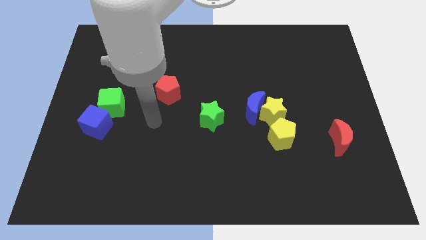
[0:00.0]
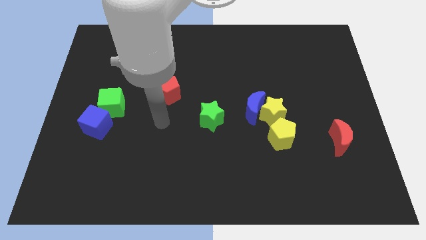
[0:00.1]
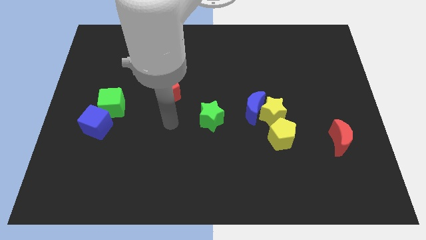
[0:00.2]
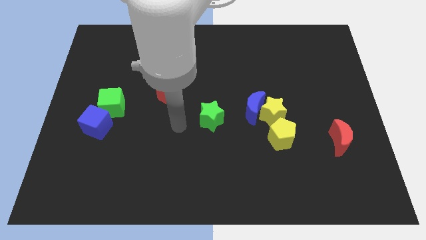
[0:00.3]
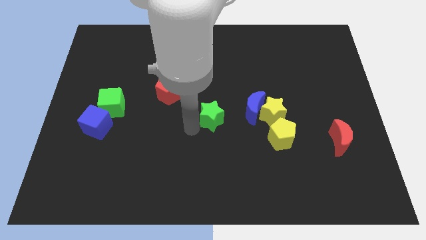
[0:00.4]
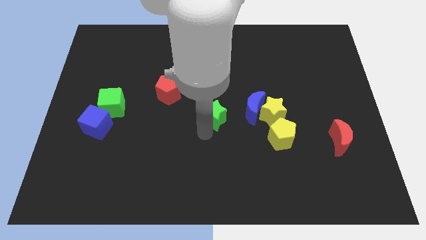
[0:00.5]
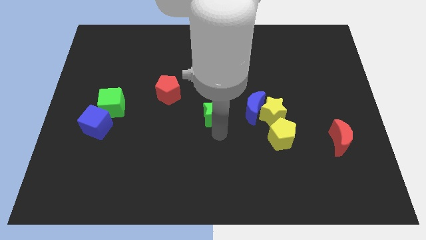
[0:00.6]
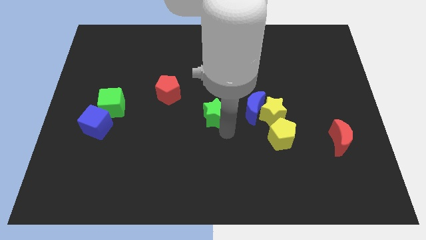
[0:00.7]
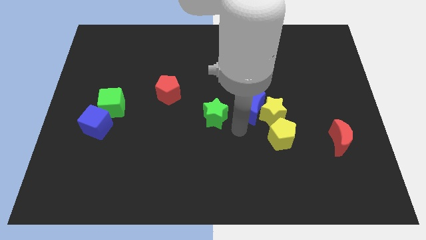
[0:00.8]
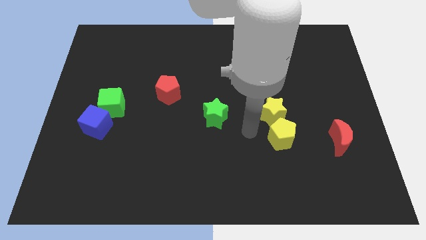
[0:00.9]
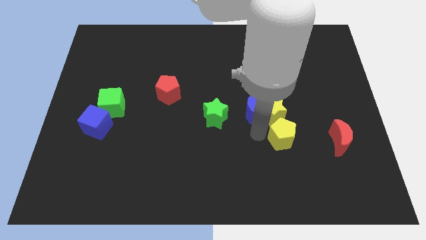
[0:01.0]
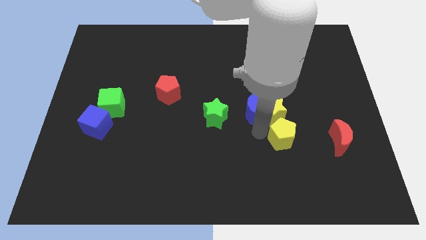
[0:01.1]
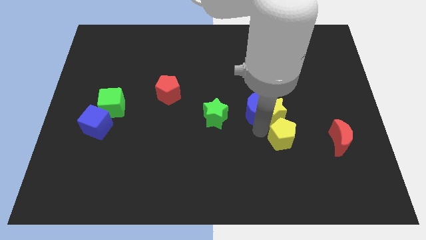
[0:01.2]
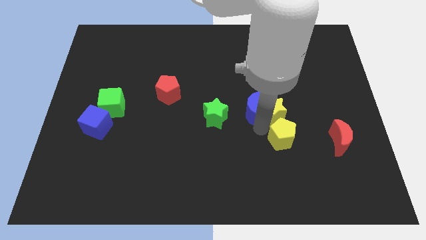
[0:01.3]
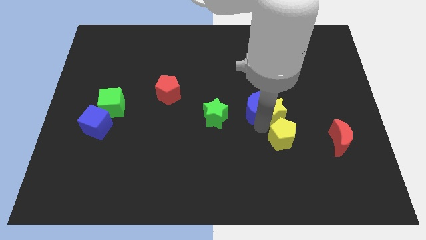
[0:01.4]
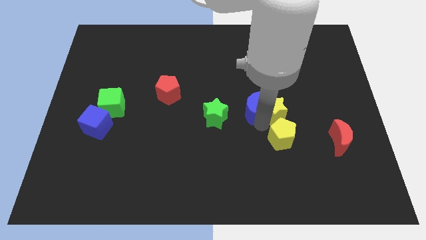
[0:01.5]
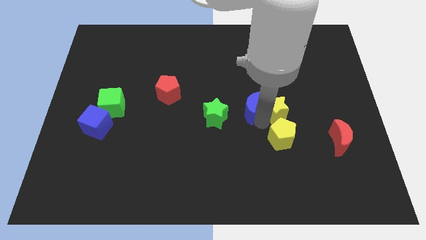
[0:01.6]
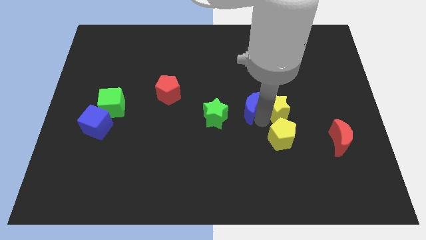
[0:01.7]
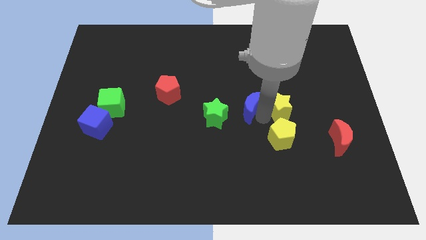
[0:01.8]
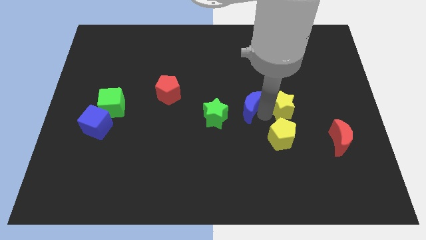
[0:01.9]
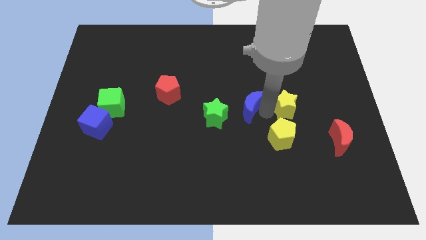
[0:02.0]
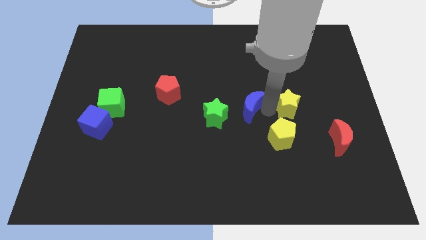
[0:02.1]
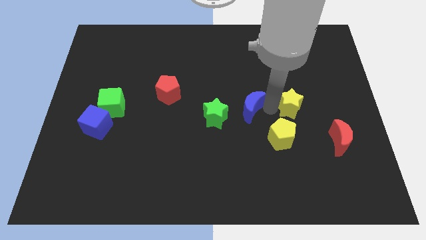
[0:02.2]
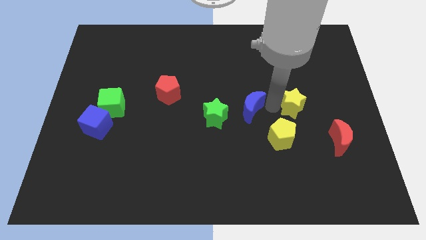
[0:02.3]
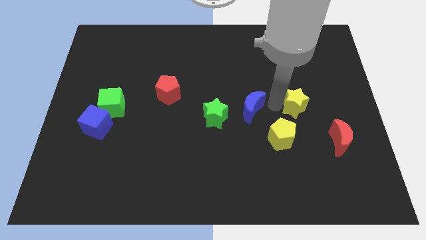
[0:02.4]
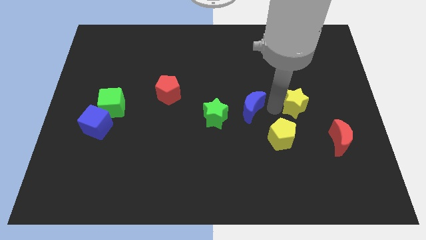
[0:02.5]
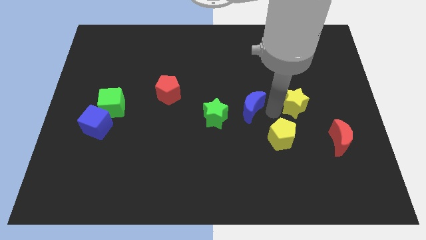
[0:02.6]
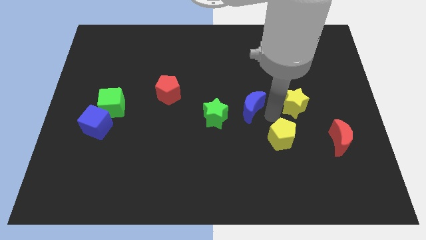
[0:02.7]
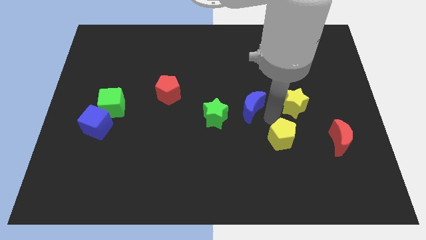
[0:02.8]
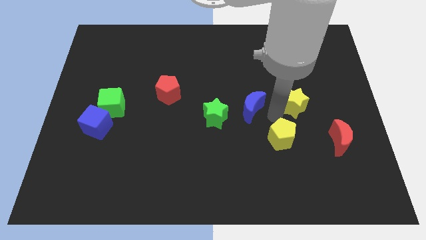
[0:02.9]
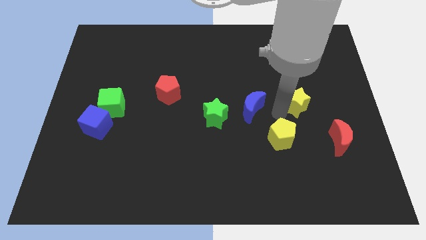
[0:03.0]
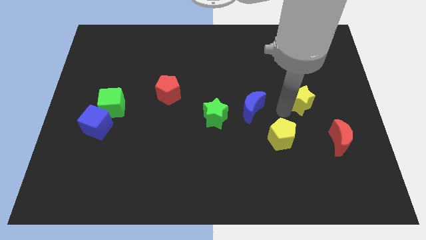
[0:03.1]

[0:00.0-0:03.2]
separate the yellow star from the blue moon and yellow pentagon

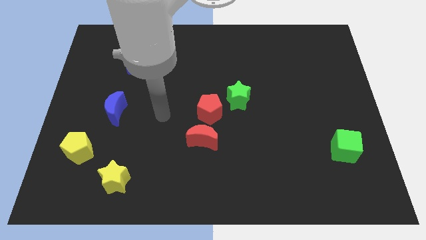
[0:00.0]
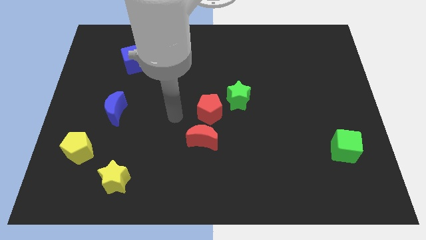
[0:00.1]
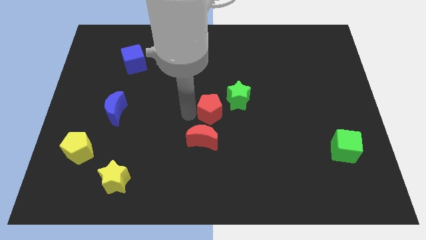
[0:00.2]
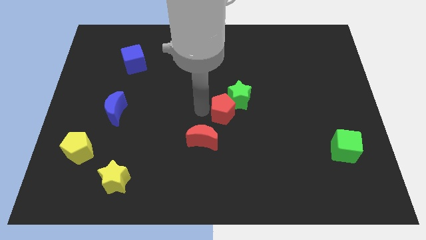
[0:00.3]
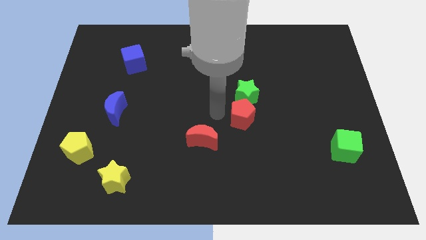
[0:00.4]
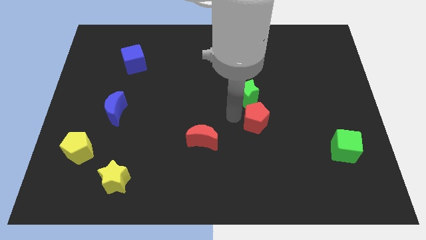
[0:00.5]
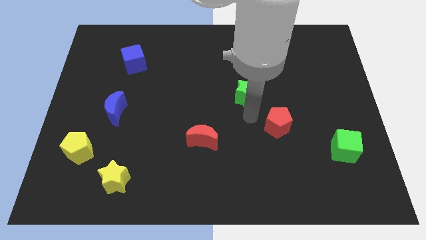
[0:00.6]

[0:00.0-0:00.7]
pull the green star apart from the red pentagon

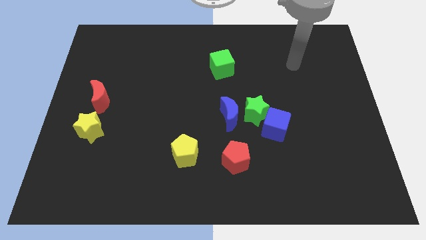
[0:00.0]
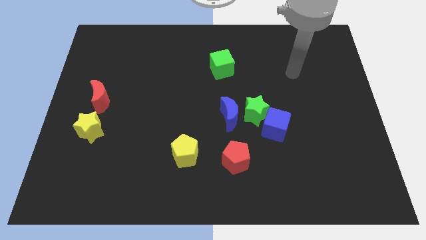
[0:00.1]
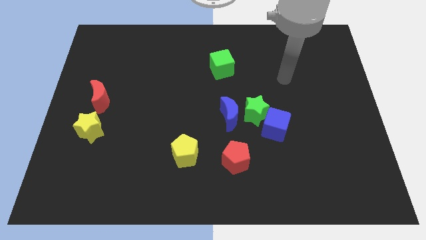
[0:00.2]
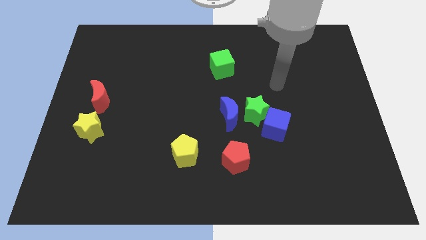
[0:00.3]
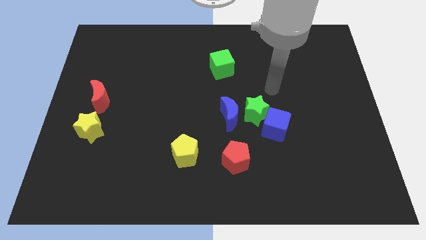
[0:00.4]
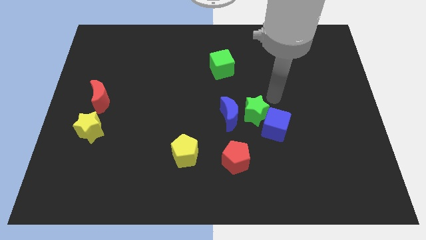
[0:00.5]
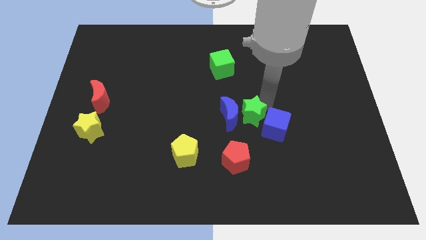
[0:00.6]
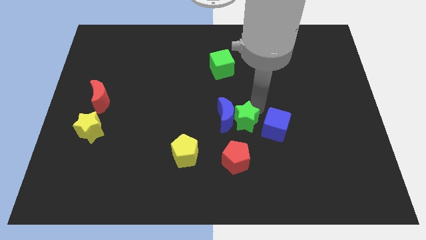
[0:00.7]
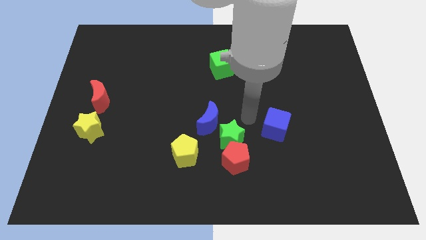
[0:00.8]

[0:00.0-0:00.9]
move the blue cube away from the green star

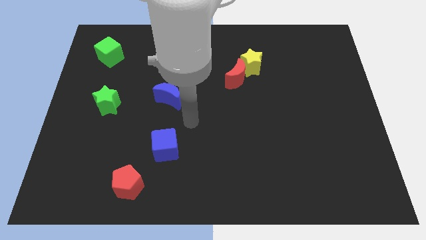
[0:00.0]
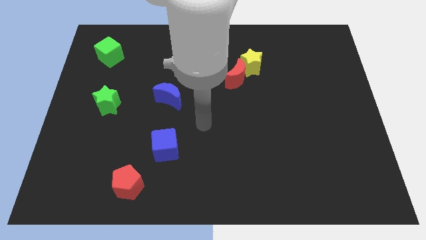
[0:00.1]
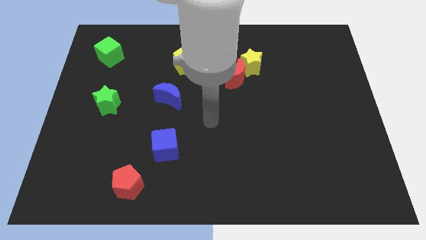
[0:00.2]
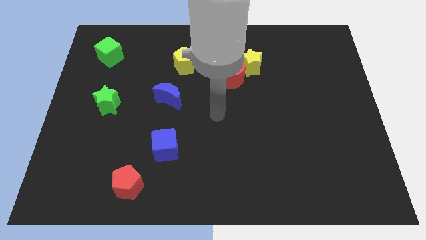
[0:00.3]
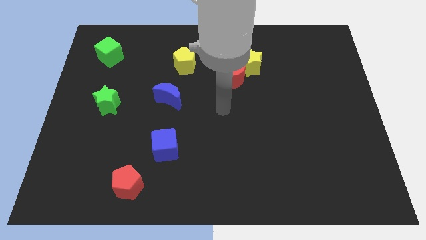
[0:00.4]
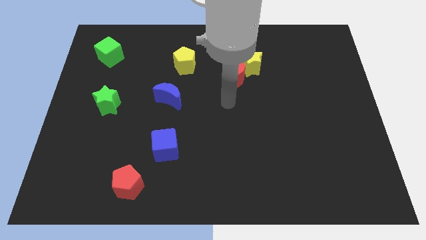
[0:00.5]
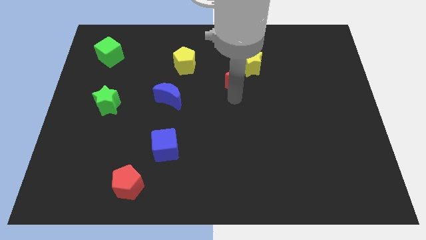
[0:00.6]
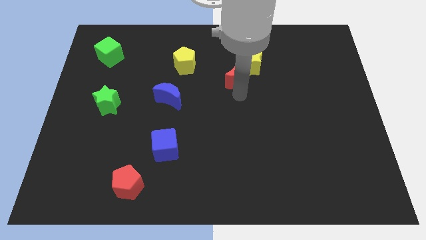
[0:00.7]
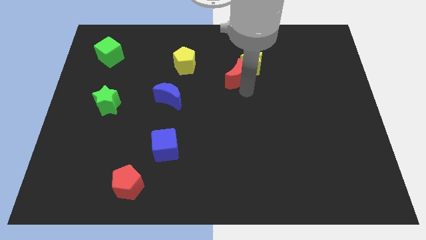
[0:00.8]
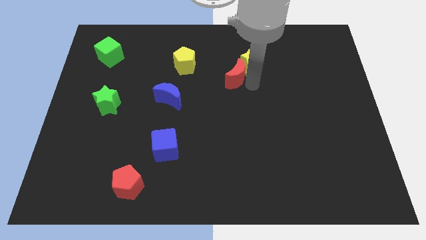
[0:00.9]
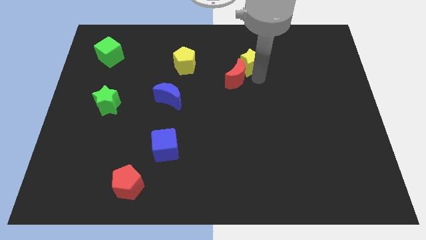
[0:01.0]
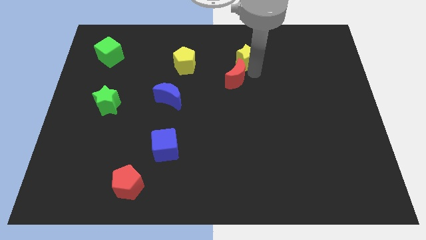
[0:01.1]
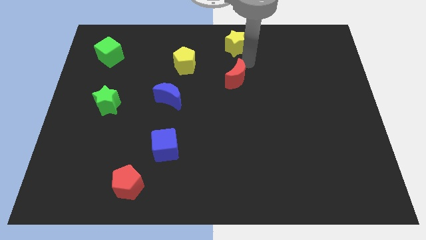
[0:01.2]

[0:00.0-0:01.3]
pull the red moon apart from the yellow star

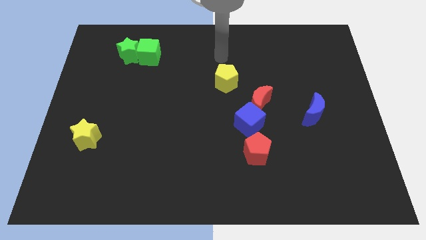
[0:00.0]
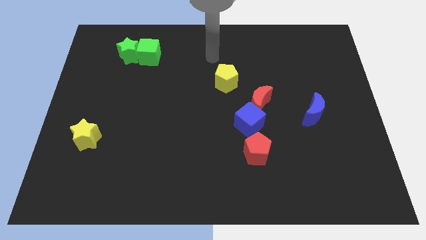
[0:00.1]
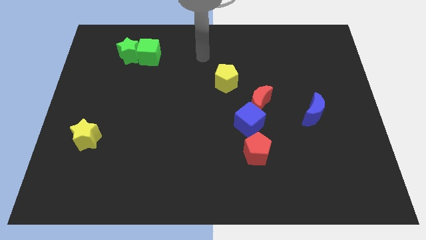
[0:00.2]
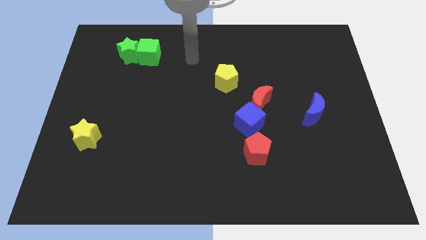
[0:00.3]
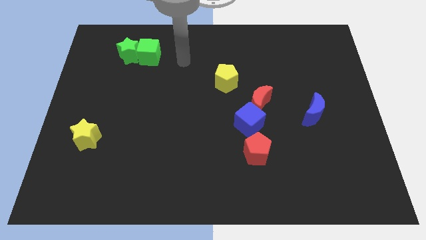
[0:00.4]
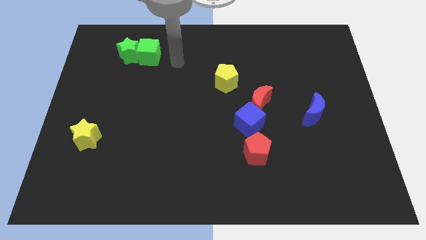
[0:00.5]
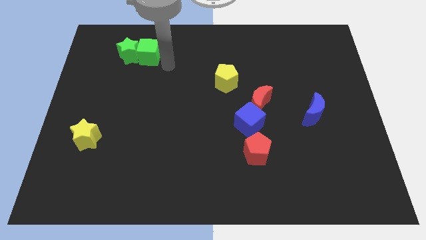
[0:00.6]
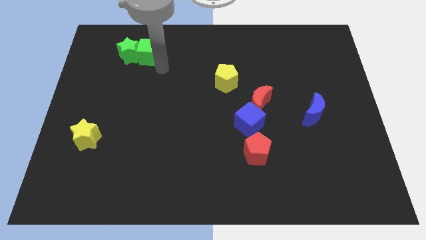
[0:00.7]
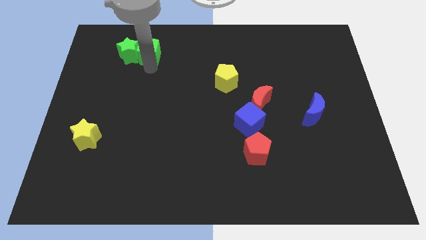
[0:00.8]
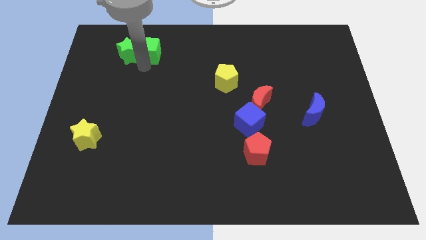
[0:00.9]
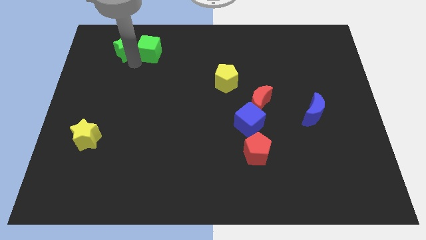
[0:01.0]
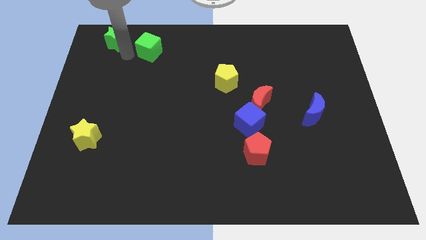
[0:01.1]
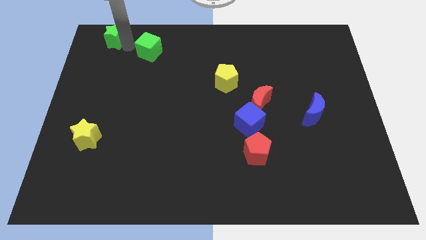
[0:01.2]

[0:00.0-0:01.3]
move the green cube away from the green star

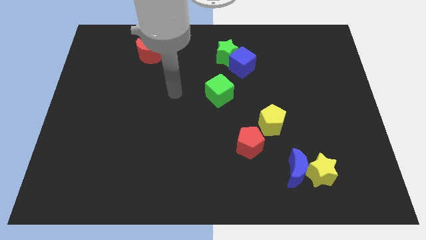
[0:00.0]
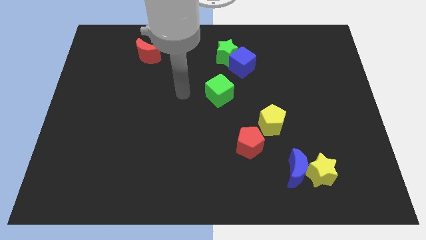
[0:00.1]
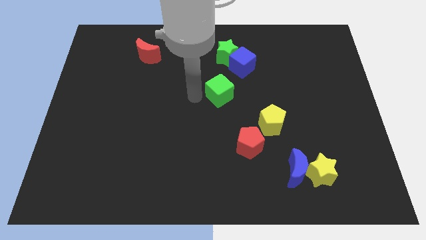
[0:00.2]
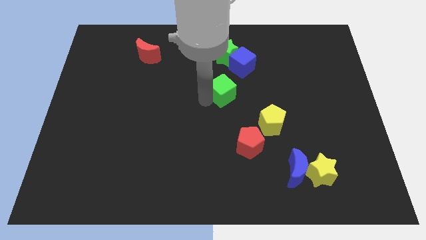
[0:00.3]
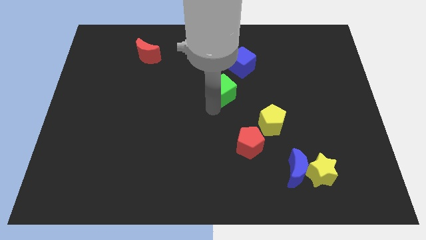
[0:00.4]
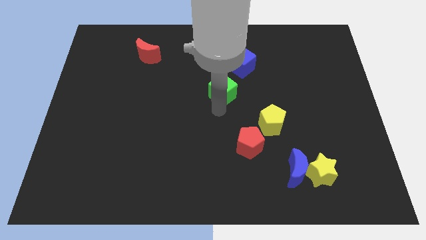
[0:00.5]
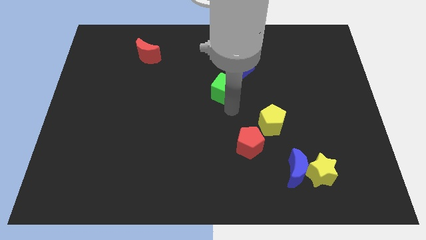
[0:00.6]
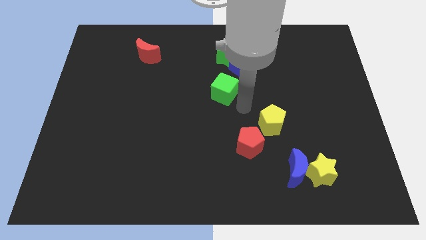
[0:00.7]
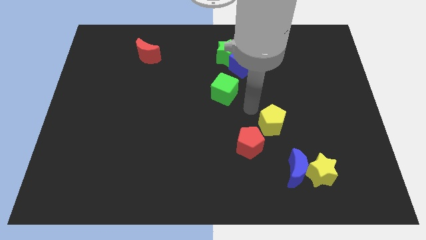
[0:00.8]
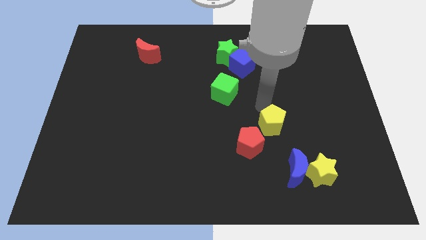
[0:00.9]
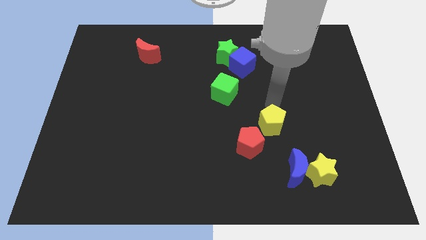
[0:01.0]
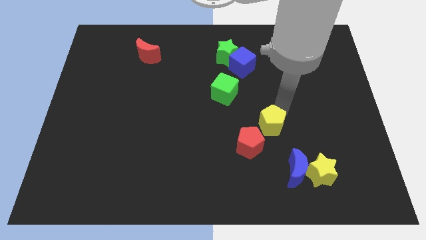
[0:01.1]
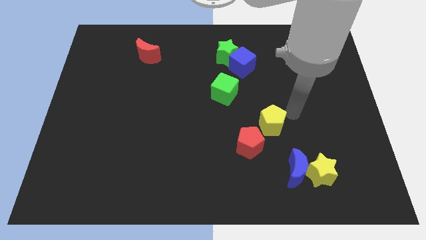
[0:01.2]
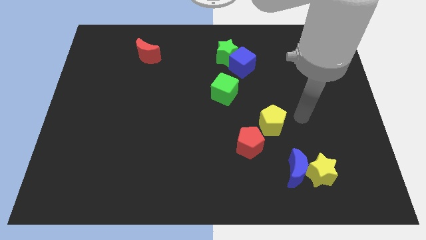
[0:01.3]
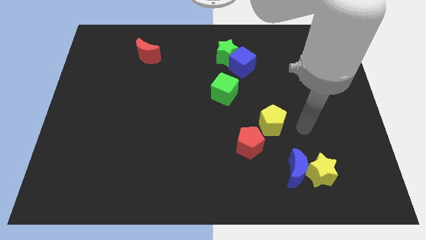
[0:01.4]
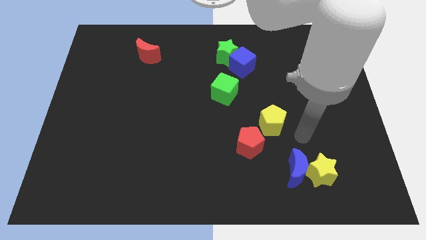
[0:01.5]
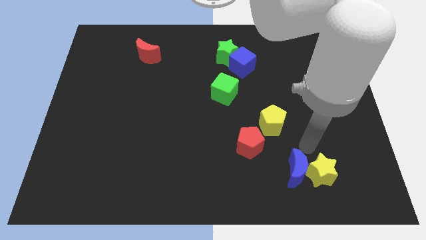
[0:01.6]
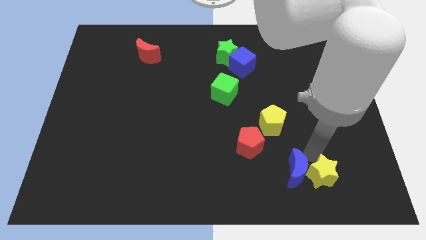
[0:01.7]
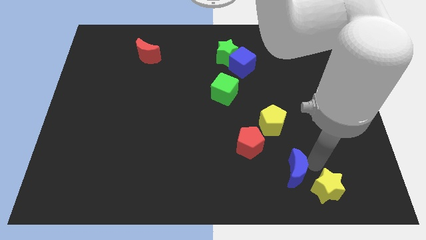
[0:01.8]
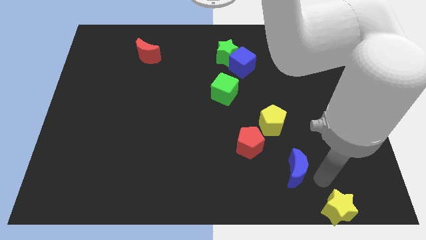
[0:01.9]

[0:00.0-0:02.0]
pull the blue moon apart from the yellow star
